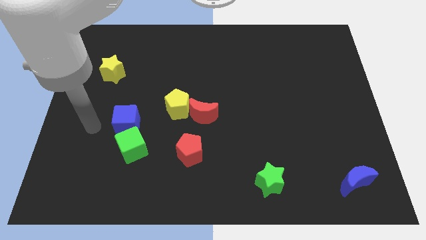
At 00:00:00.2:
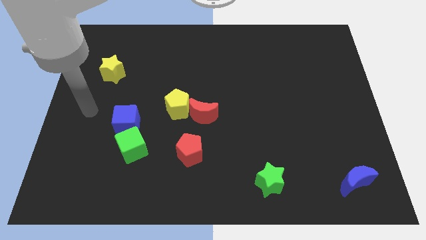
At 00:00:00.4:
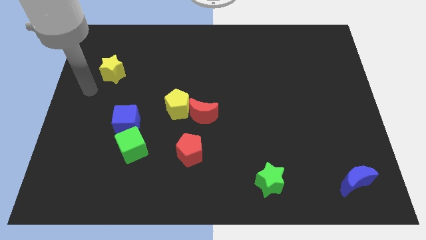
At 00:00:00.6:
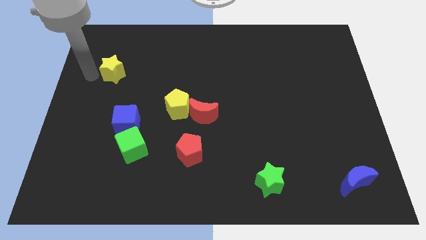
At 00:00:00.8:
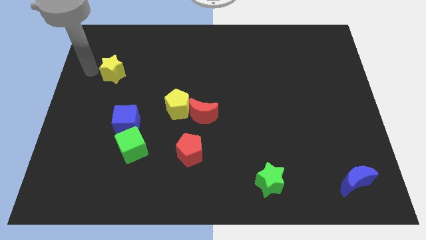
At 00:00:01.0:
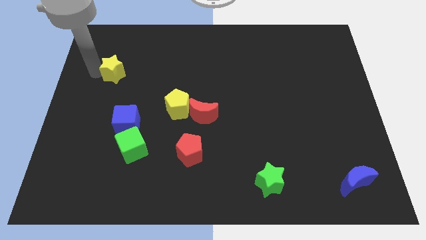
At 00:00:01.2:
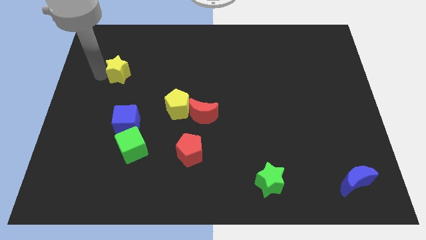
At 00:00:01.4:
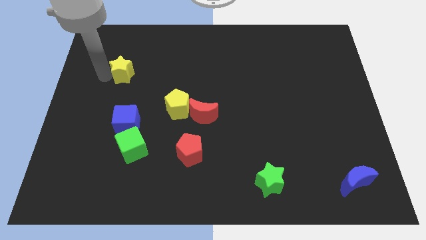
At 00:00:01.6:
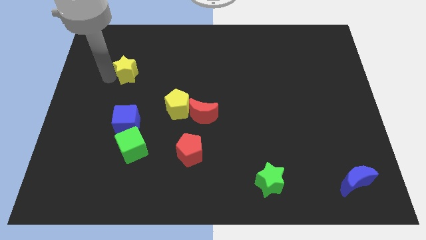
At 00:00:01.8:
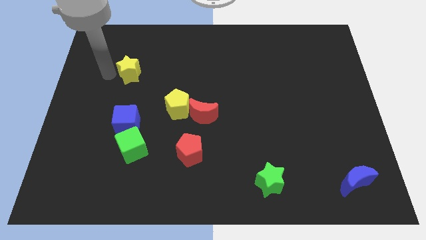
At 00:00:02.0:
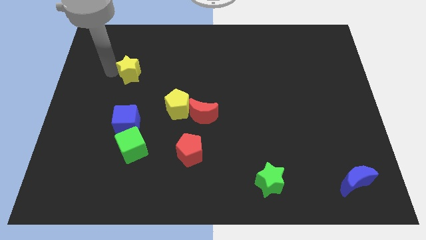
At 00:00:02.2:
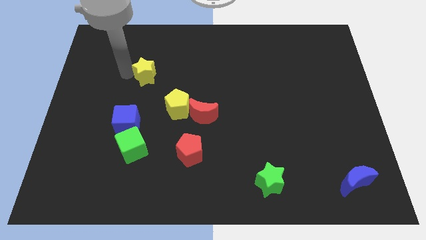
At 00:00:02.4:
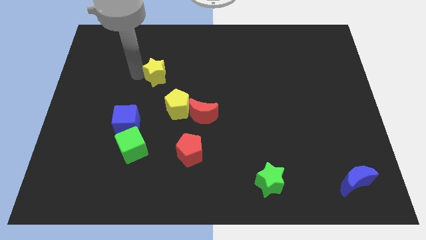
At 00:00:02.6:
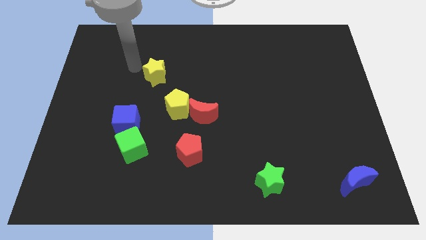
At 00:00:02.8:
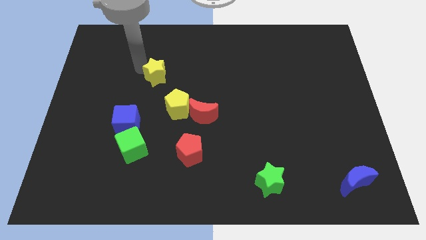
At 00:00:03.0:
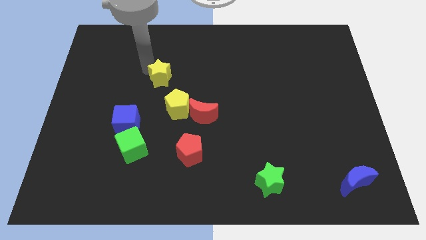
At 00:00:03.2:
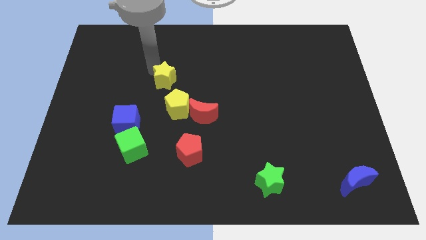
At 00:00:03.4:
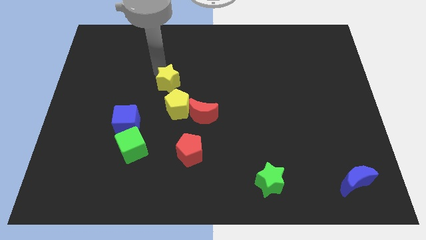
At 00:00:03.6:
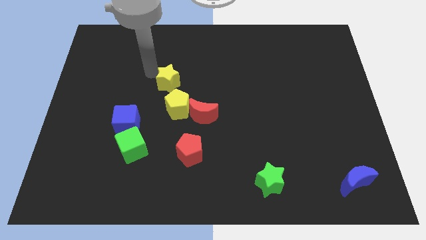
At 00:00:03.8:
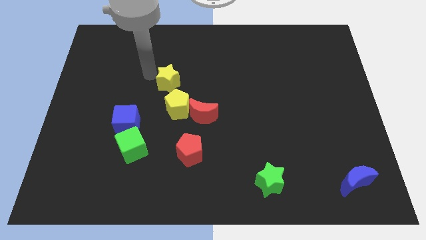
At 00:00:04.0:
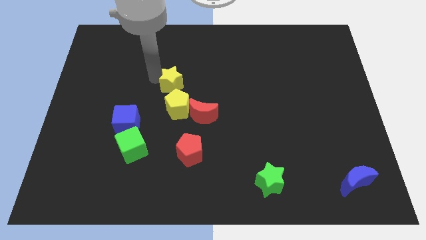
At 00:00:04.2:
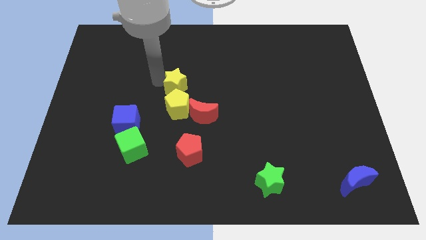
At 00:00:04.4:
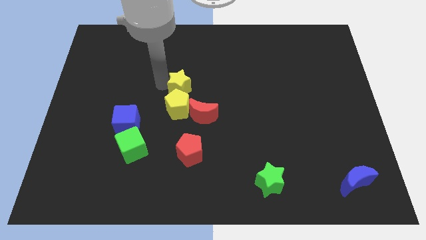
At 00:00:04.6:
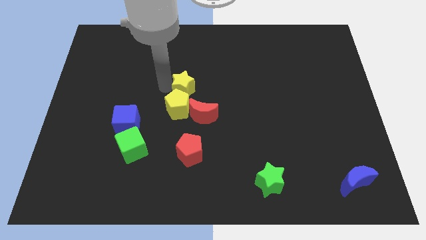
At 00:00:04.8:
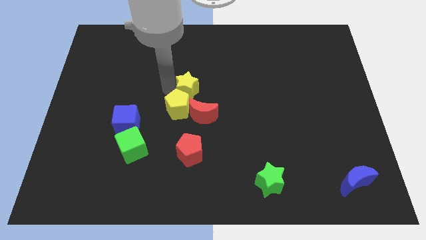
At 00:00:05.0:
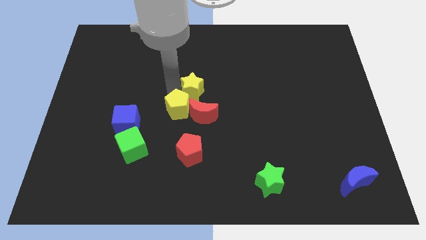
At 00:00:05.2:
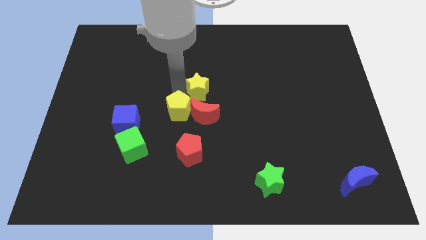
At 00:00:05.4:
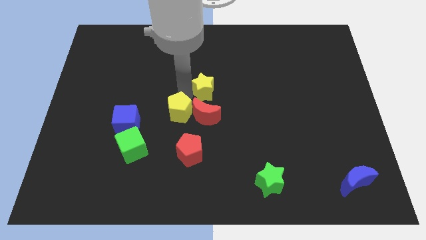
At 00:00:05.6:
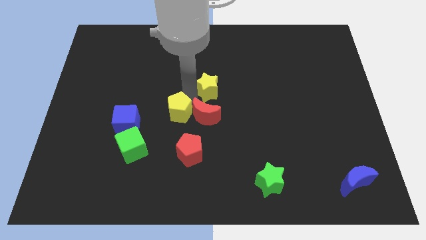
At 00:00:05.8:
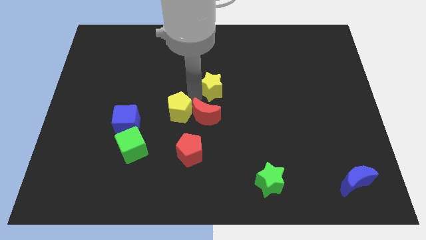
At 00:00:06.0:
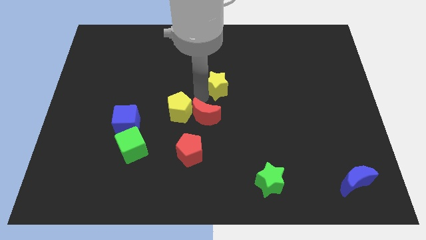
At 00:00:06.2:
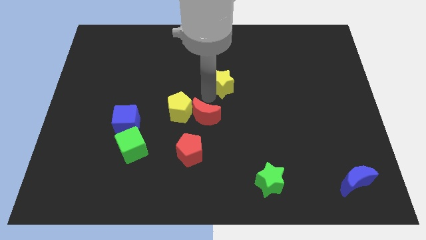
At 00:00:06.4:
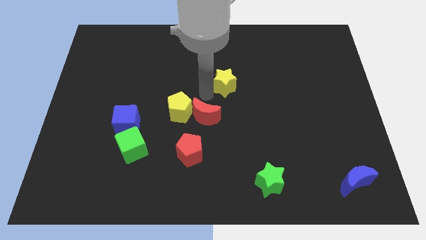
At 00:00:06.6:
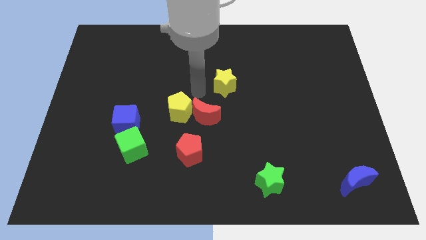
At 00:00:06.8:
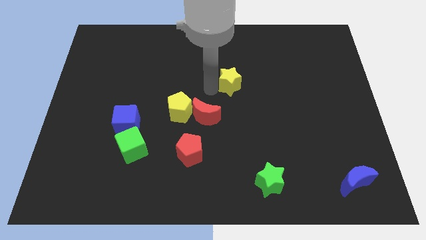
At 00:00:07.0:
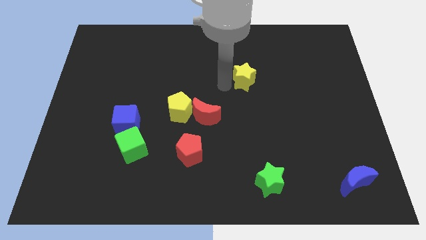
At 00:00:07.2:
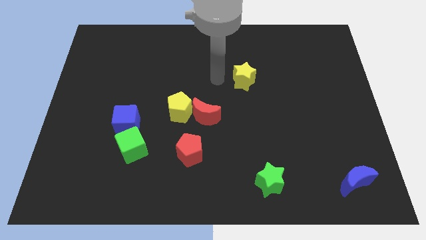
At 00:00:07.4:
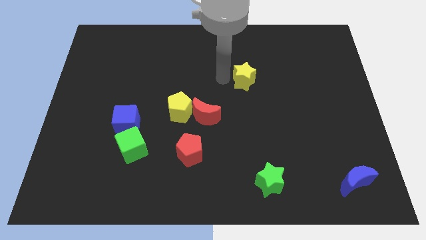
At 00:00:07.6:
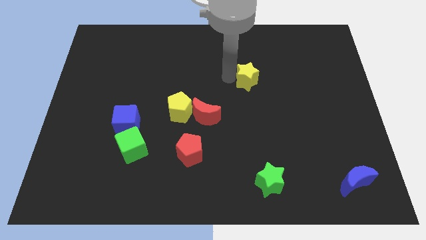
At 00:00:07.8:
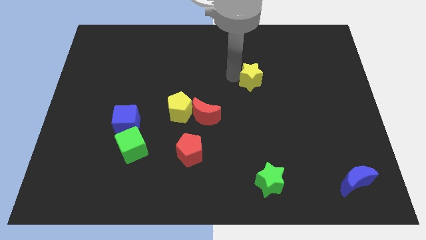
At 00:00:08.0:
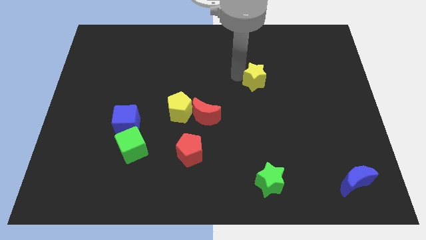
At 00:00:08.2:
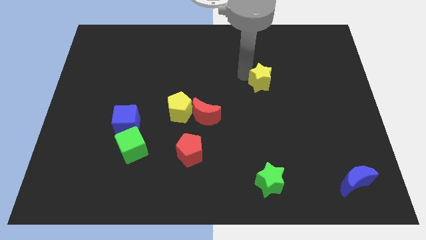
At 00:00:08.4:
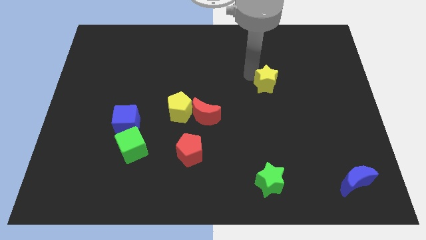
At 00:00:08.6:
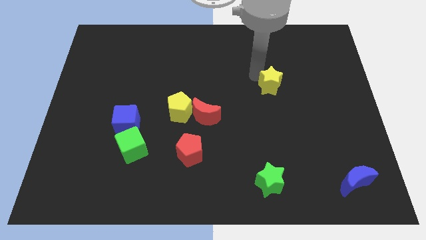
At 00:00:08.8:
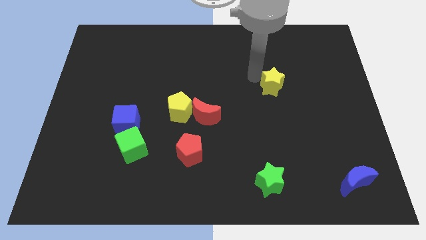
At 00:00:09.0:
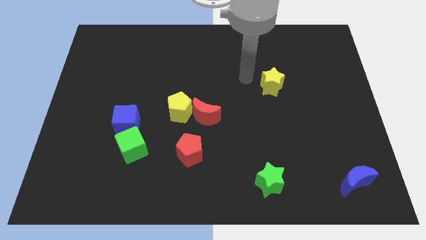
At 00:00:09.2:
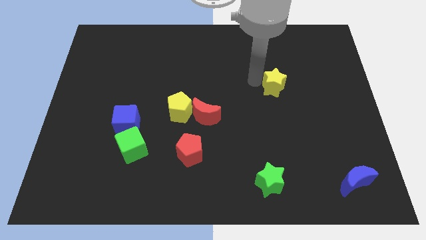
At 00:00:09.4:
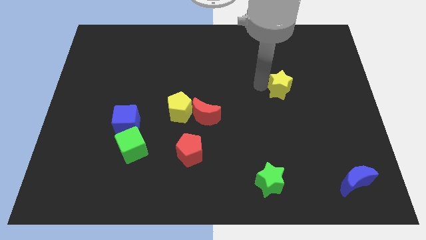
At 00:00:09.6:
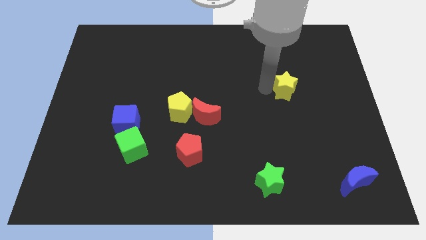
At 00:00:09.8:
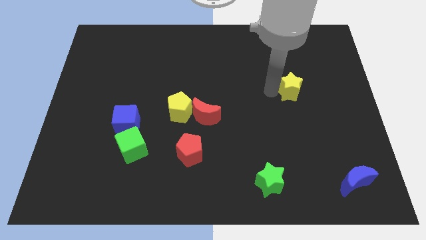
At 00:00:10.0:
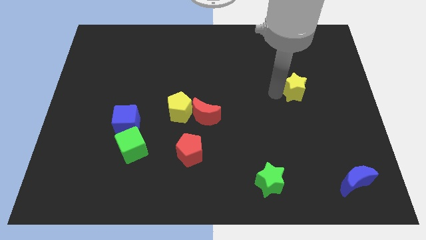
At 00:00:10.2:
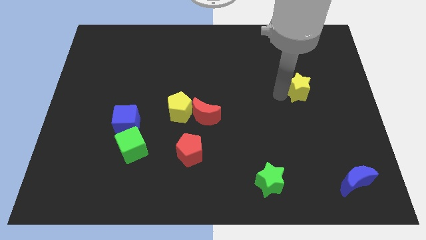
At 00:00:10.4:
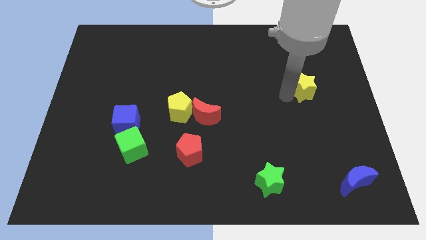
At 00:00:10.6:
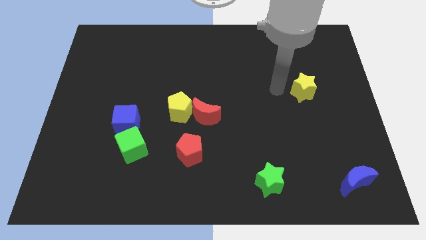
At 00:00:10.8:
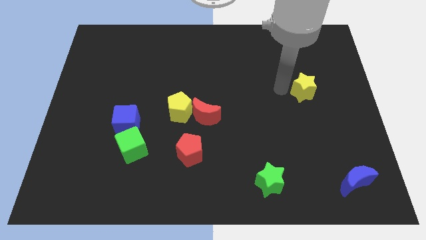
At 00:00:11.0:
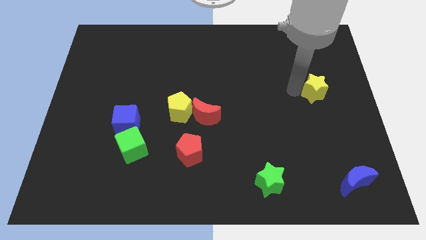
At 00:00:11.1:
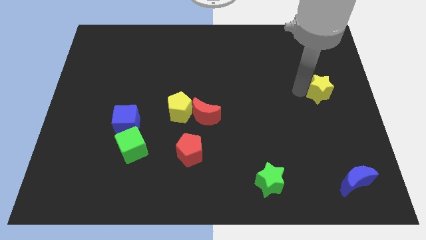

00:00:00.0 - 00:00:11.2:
slide the yellow star to the center right

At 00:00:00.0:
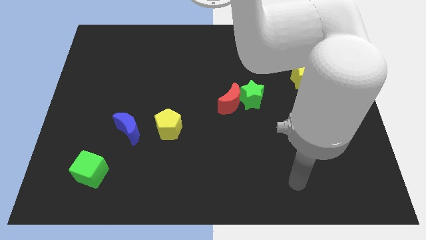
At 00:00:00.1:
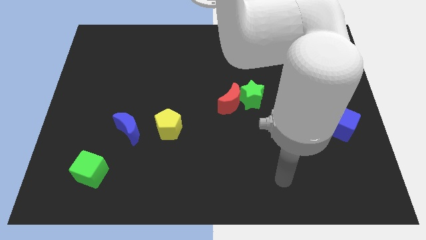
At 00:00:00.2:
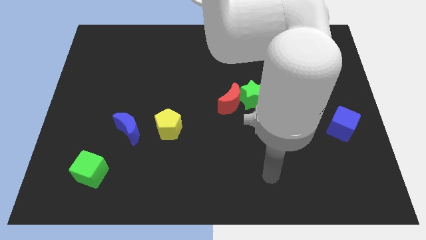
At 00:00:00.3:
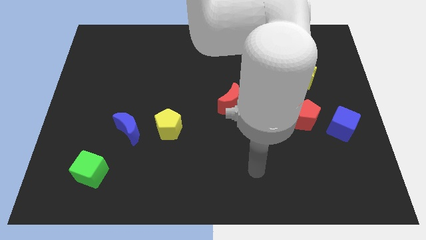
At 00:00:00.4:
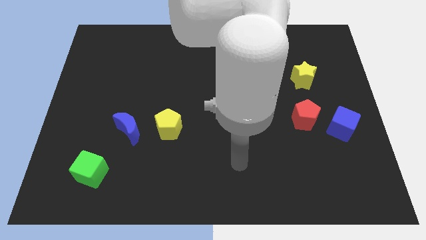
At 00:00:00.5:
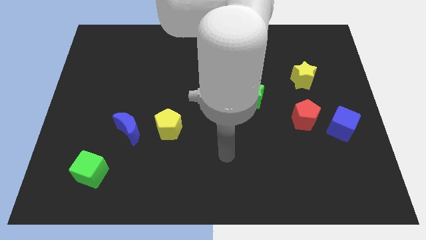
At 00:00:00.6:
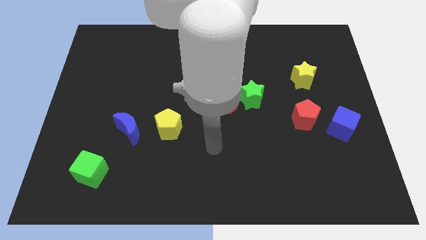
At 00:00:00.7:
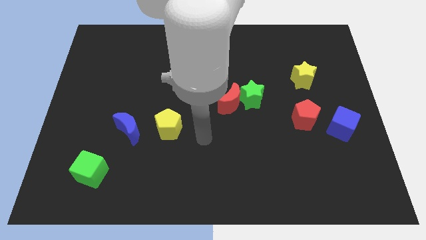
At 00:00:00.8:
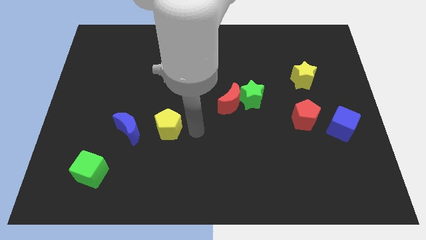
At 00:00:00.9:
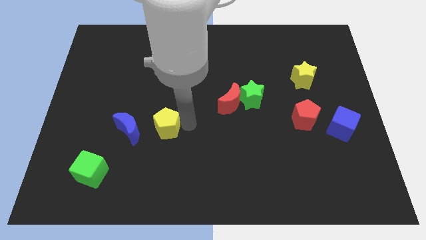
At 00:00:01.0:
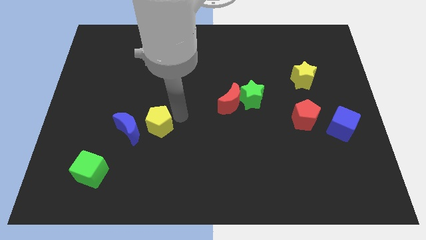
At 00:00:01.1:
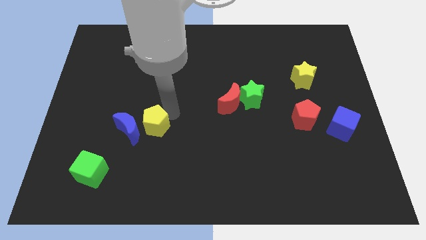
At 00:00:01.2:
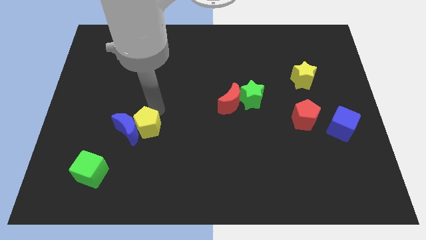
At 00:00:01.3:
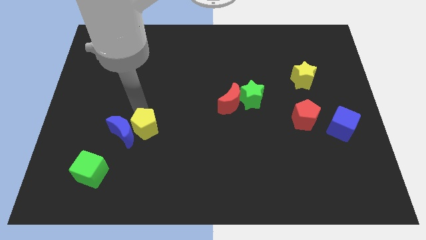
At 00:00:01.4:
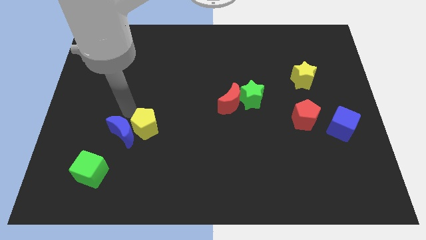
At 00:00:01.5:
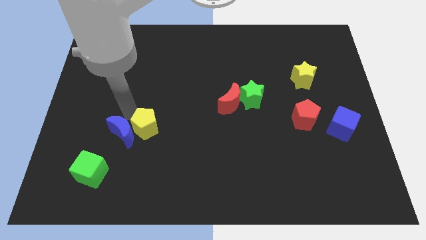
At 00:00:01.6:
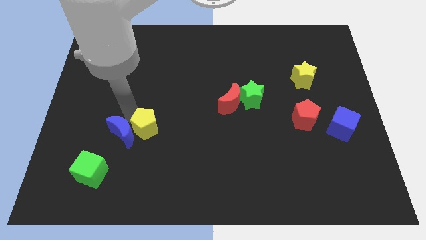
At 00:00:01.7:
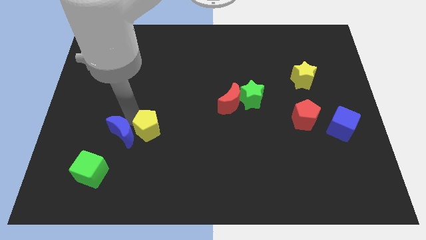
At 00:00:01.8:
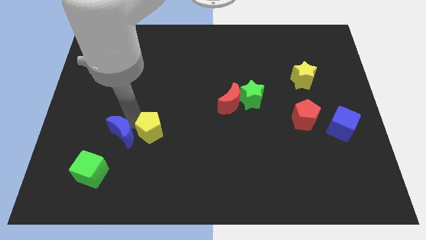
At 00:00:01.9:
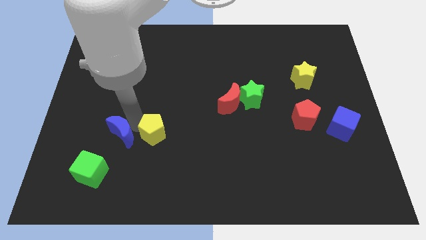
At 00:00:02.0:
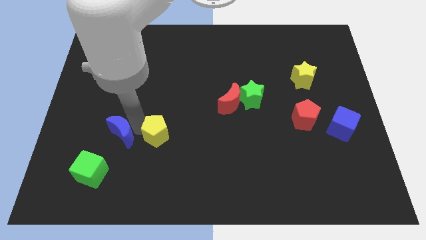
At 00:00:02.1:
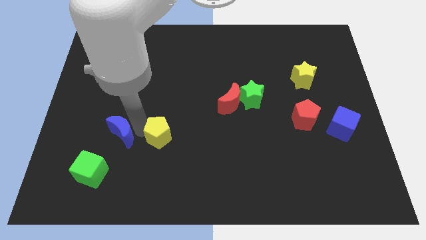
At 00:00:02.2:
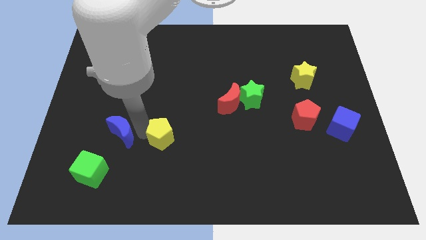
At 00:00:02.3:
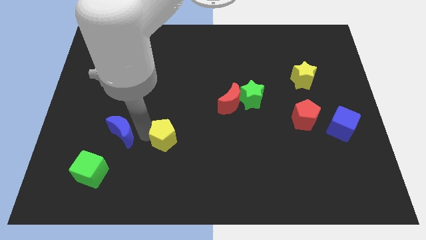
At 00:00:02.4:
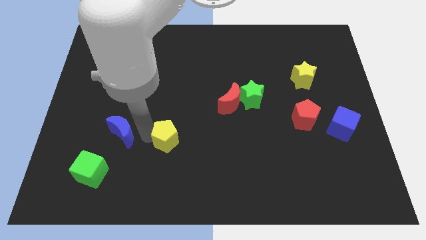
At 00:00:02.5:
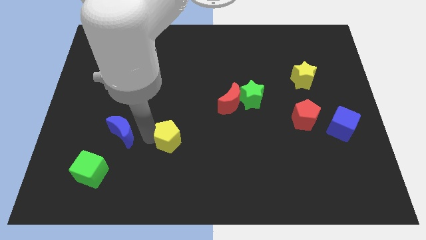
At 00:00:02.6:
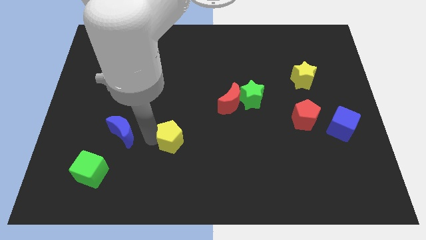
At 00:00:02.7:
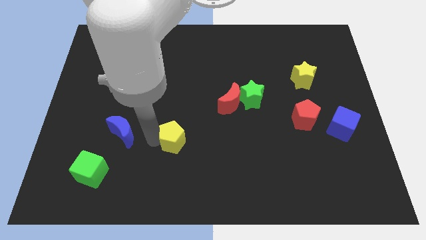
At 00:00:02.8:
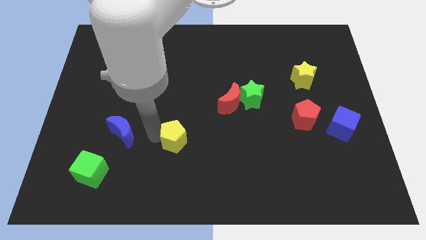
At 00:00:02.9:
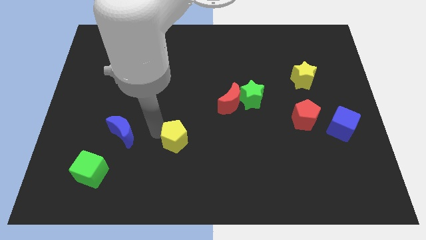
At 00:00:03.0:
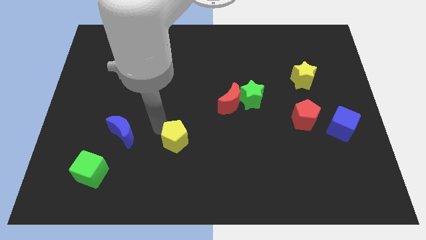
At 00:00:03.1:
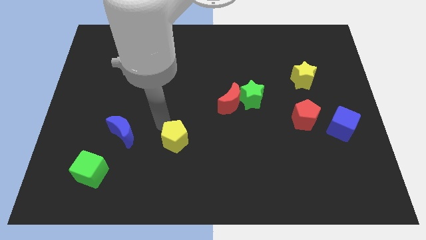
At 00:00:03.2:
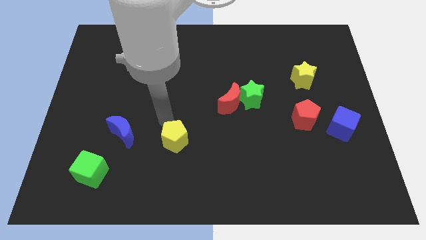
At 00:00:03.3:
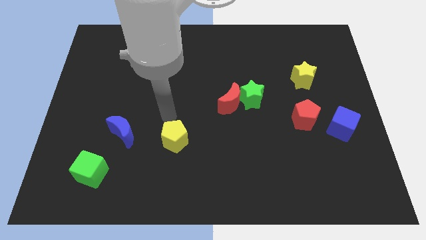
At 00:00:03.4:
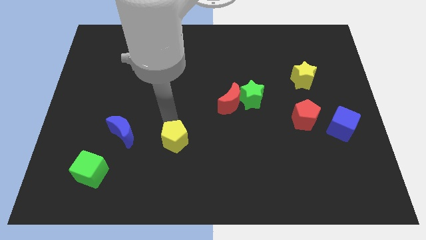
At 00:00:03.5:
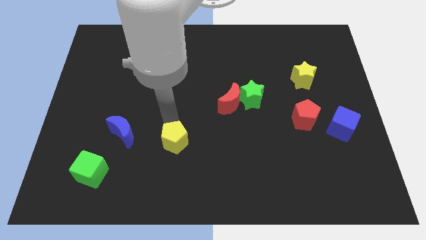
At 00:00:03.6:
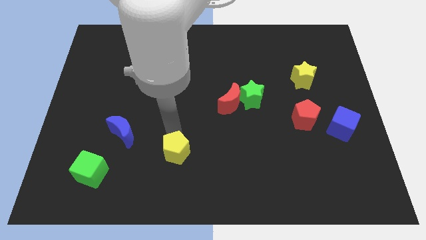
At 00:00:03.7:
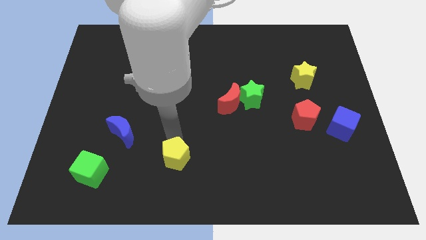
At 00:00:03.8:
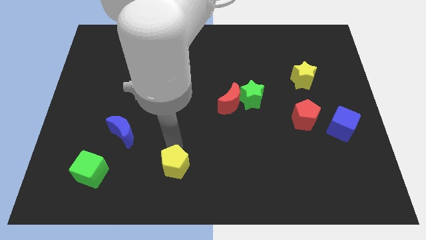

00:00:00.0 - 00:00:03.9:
move the yellow pentagon to the bottom
